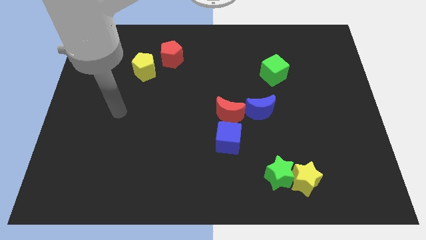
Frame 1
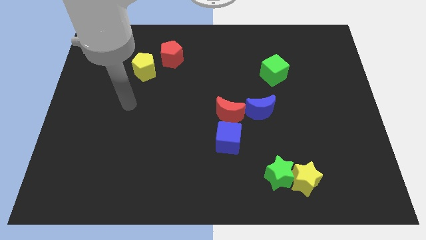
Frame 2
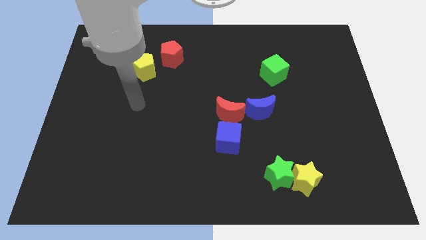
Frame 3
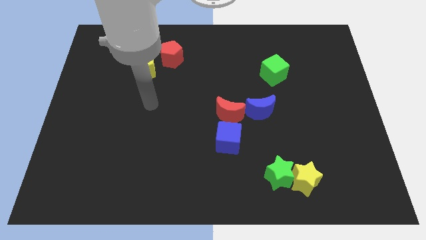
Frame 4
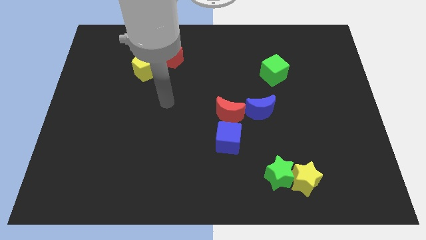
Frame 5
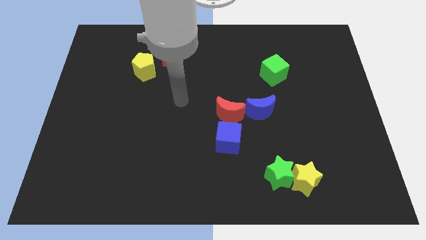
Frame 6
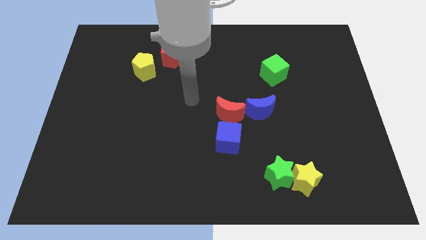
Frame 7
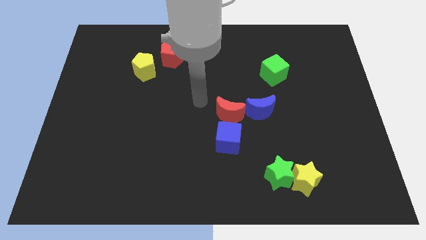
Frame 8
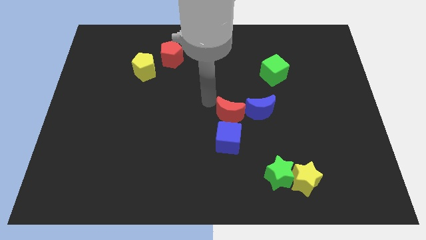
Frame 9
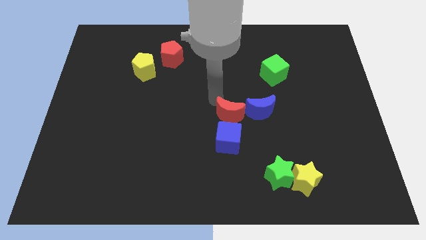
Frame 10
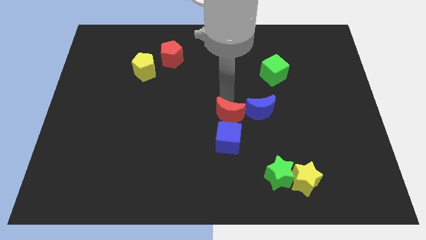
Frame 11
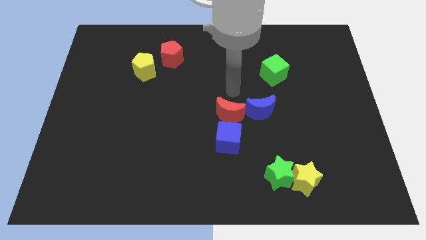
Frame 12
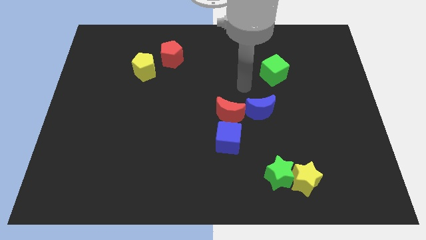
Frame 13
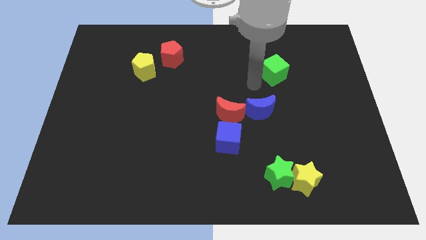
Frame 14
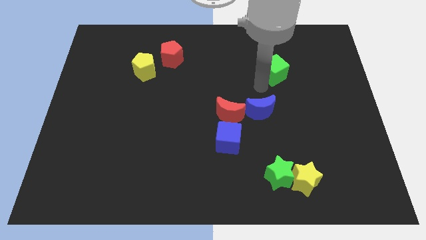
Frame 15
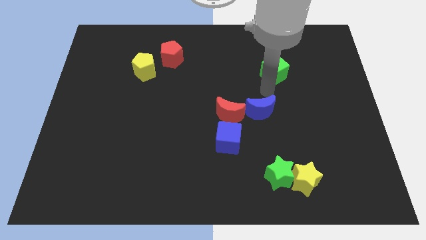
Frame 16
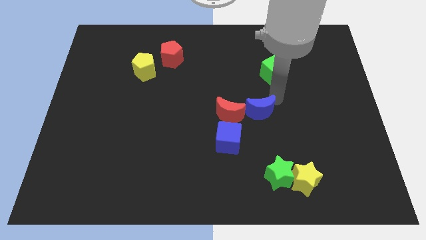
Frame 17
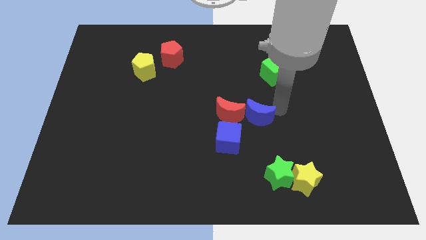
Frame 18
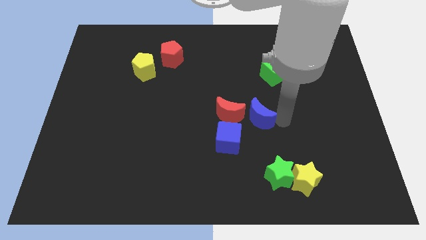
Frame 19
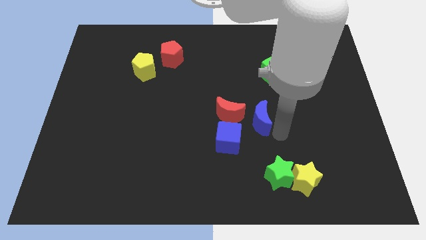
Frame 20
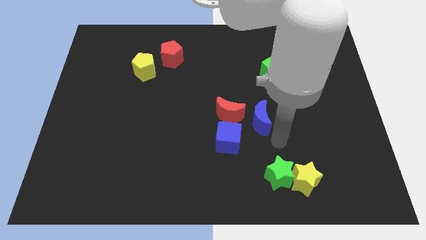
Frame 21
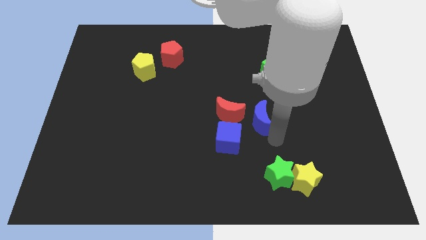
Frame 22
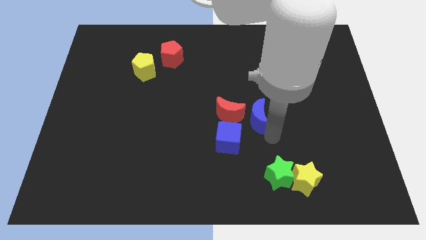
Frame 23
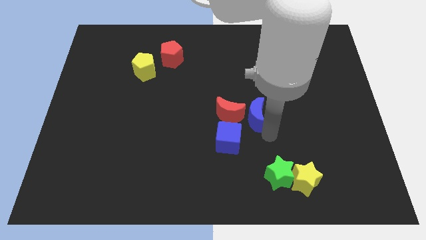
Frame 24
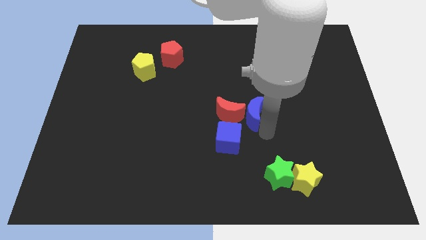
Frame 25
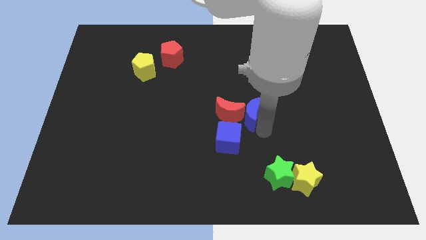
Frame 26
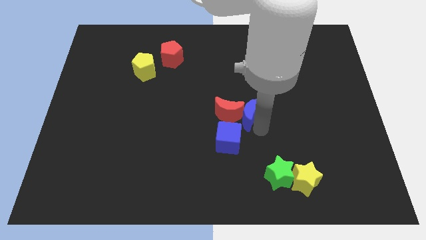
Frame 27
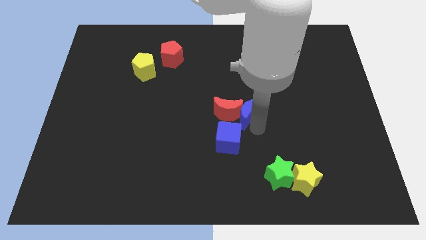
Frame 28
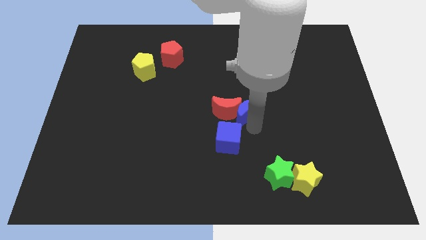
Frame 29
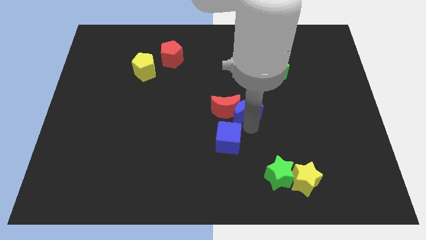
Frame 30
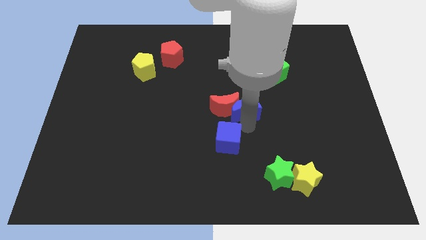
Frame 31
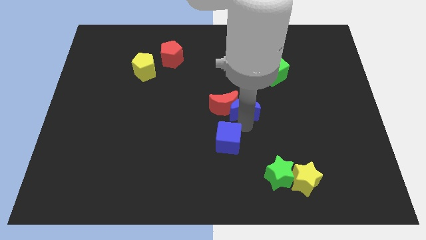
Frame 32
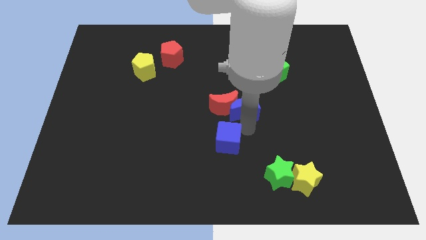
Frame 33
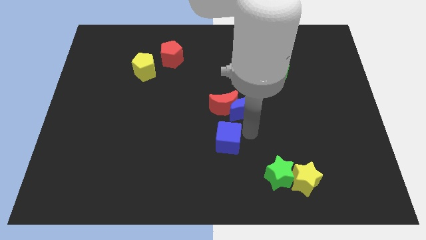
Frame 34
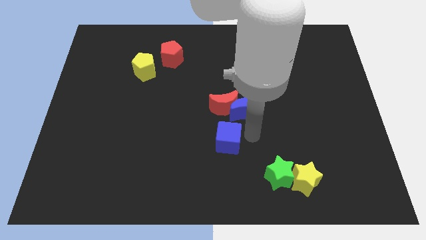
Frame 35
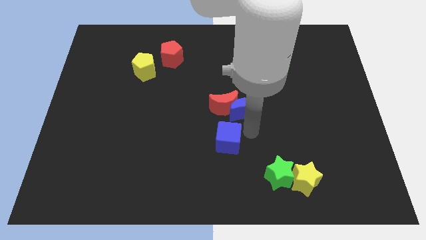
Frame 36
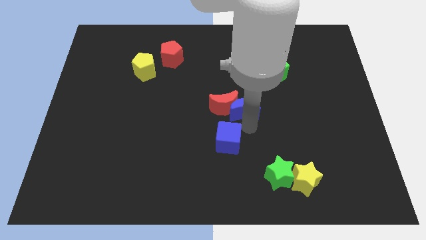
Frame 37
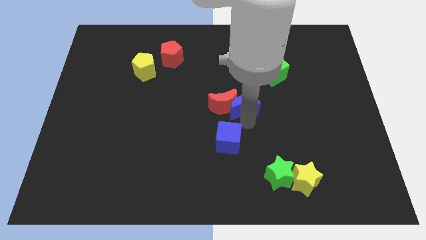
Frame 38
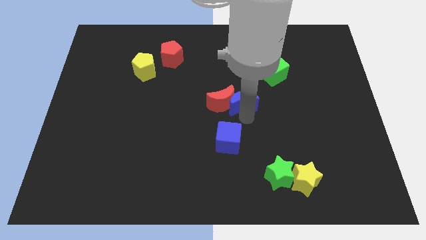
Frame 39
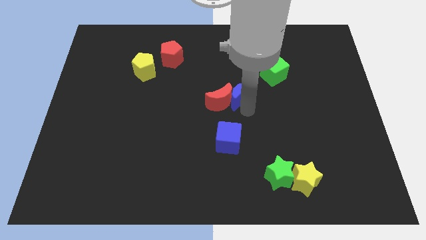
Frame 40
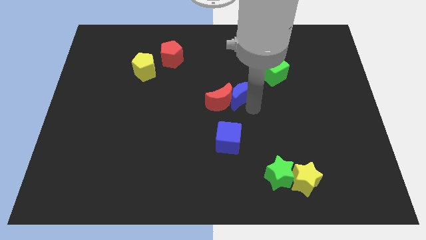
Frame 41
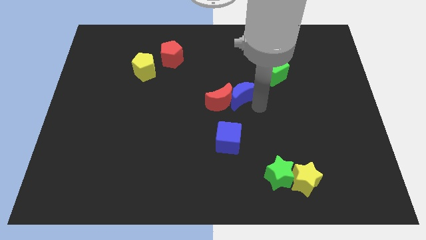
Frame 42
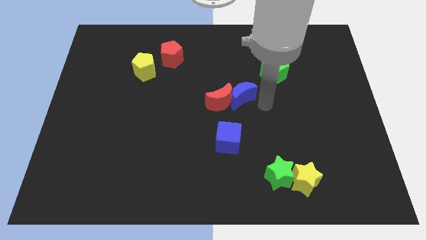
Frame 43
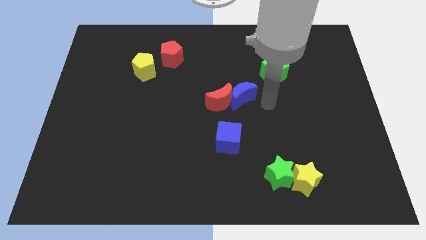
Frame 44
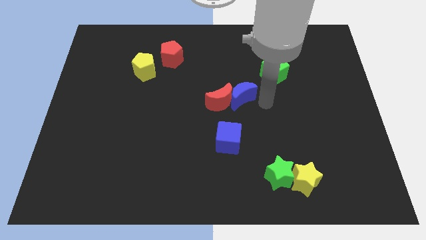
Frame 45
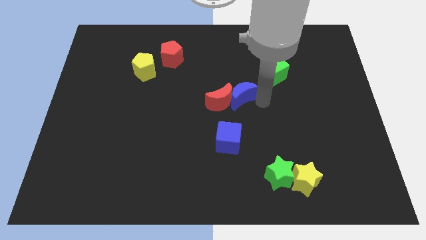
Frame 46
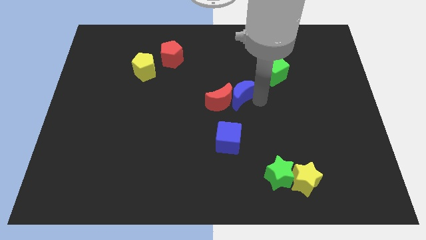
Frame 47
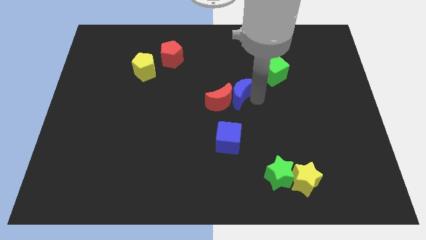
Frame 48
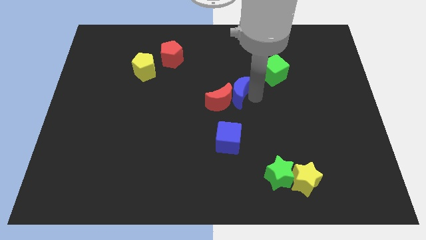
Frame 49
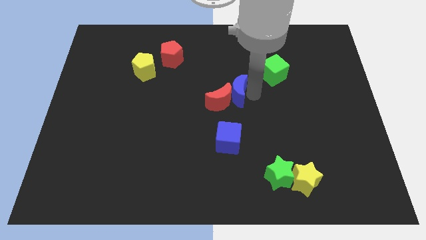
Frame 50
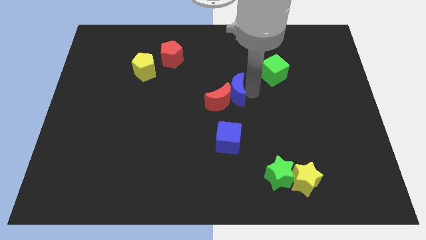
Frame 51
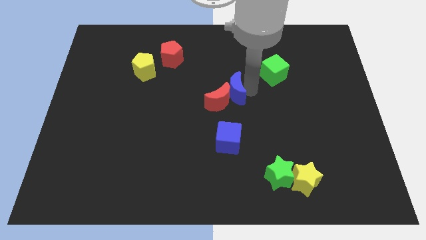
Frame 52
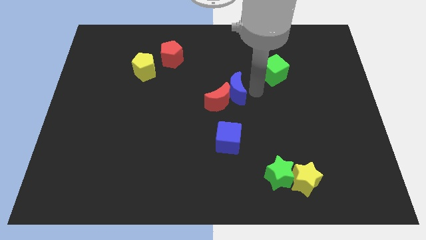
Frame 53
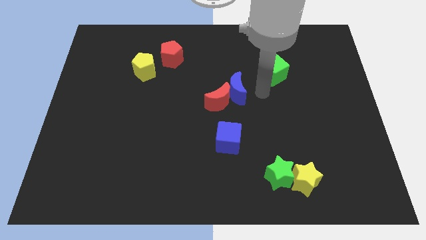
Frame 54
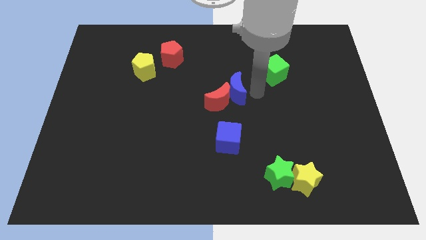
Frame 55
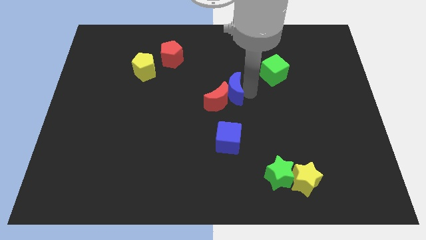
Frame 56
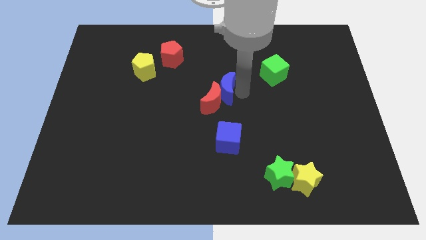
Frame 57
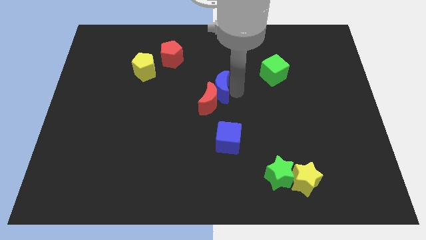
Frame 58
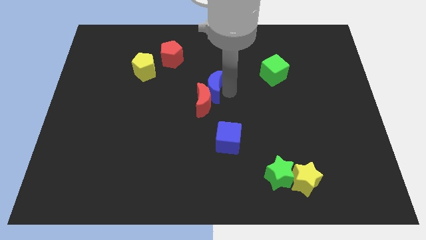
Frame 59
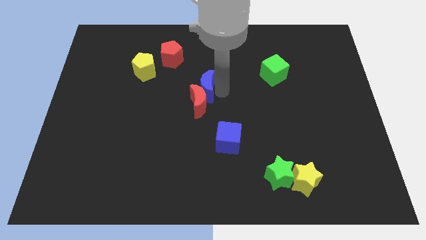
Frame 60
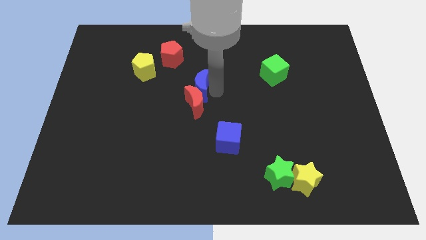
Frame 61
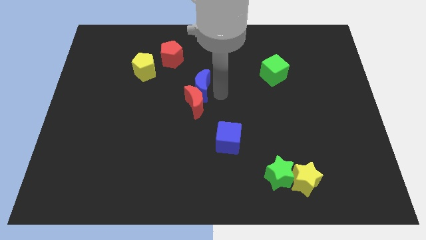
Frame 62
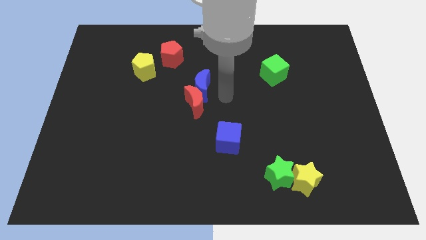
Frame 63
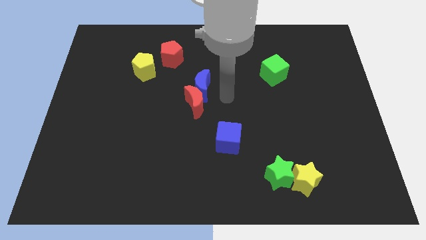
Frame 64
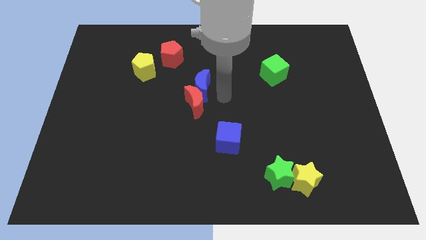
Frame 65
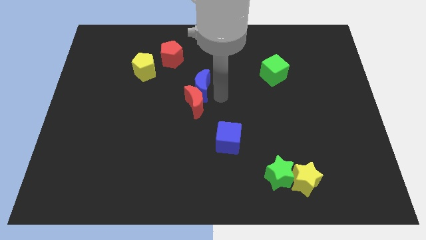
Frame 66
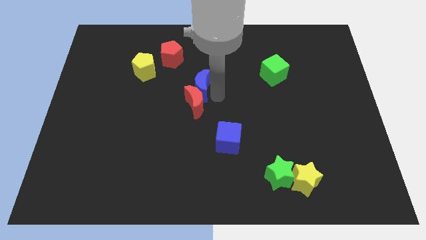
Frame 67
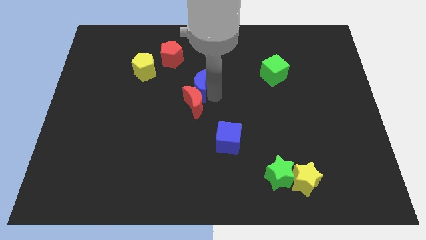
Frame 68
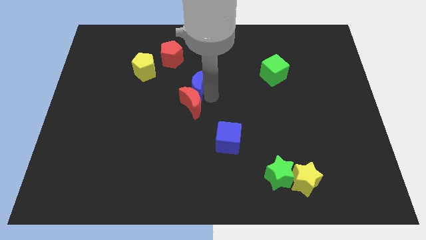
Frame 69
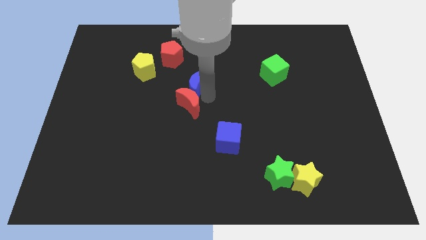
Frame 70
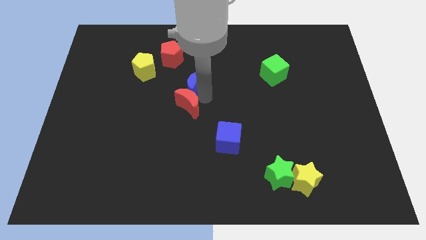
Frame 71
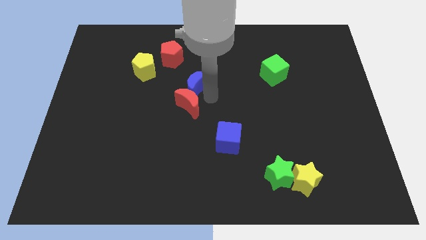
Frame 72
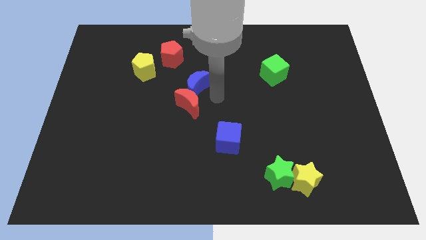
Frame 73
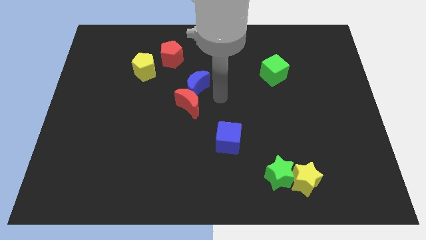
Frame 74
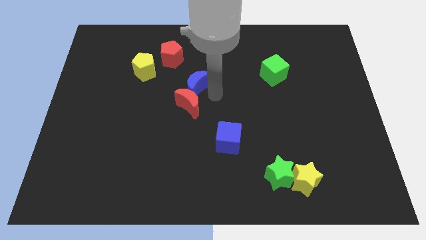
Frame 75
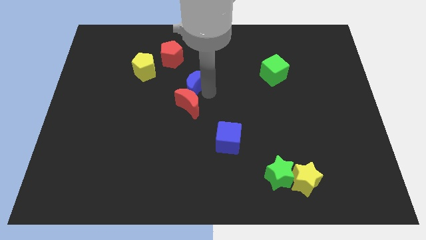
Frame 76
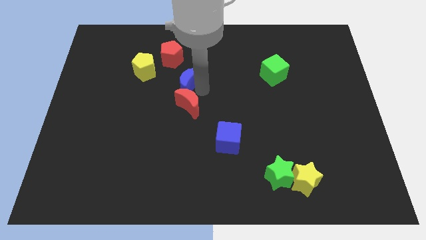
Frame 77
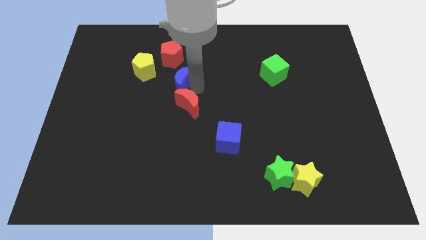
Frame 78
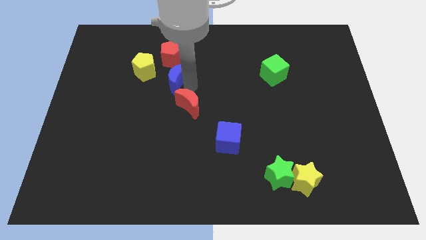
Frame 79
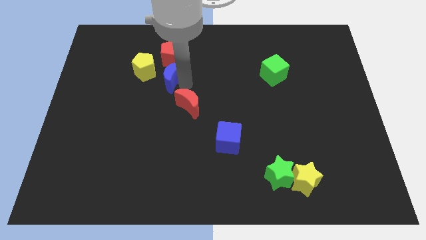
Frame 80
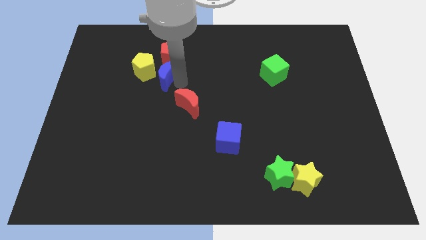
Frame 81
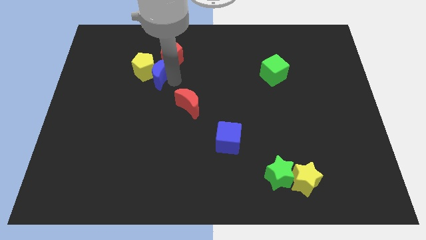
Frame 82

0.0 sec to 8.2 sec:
push the blue moon next to the yellow pentagon
